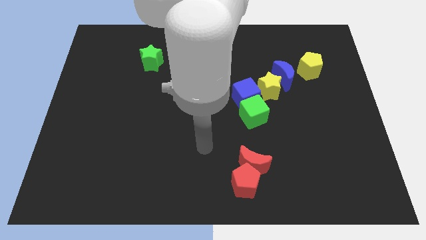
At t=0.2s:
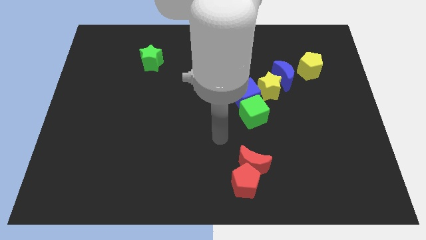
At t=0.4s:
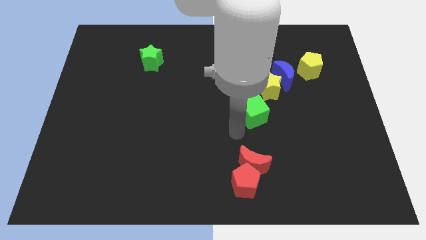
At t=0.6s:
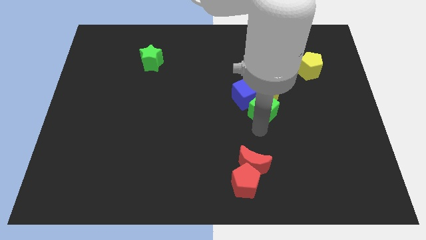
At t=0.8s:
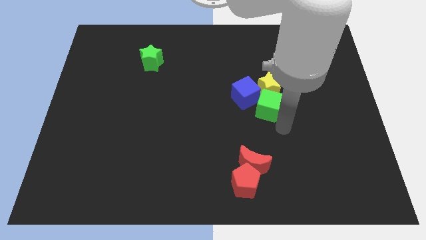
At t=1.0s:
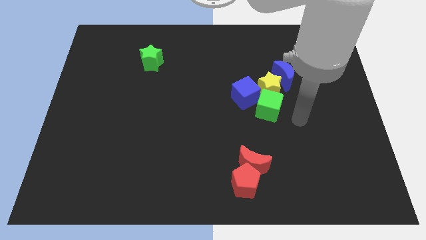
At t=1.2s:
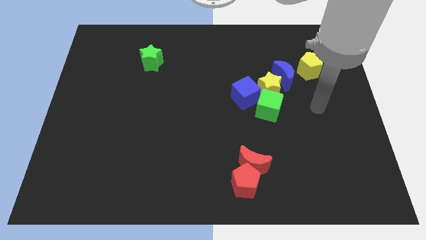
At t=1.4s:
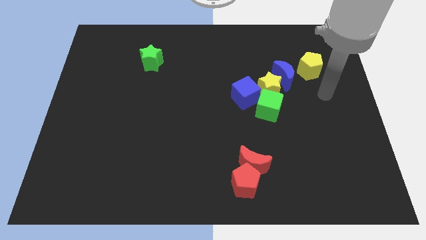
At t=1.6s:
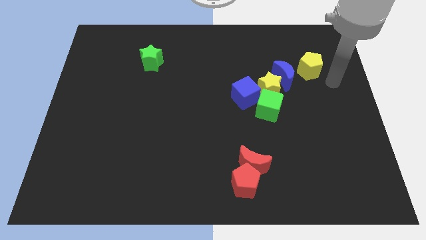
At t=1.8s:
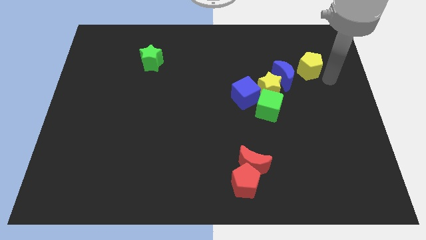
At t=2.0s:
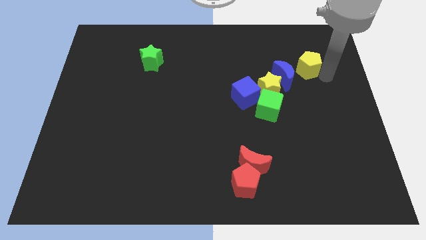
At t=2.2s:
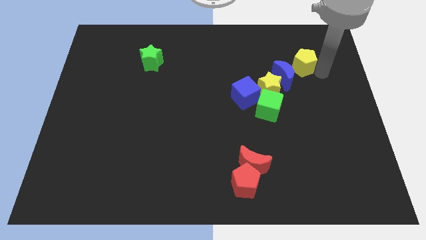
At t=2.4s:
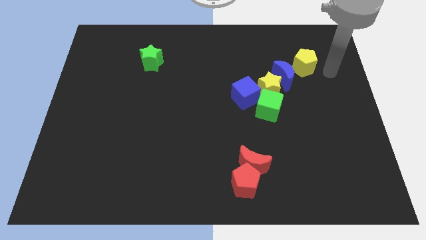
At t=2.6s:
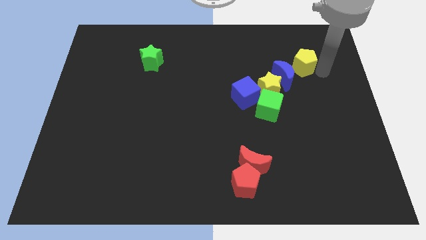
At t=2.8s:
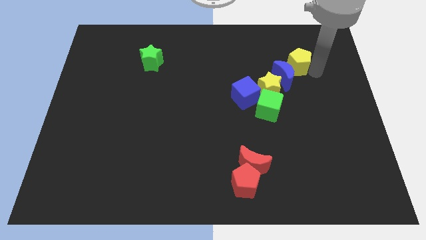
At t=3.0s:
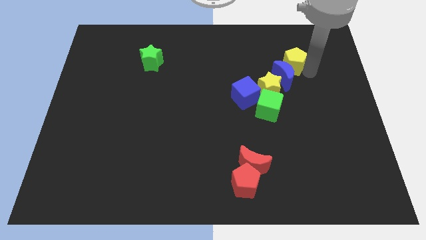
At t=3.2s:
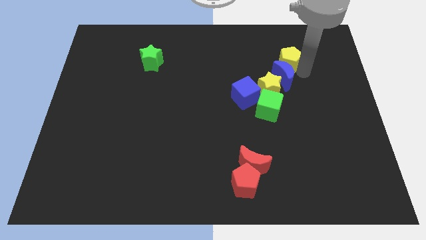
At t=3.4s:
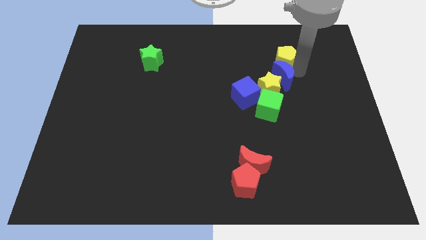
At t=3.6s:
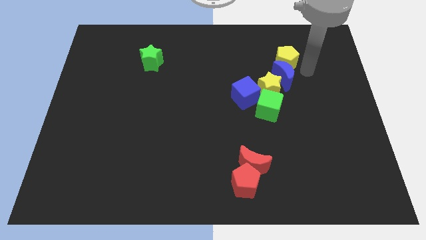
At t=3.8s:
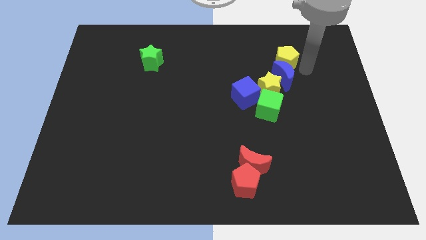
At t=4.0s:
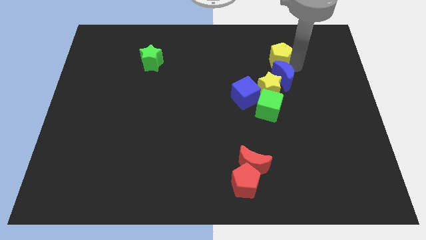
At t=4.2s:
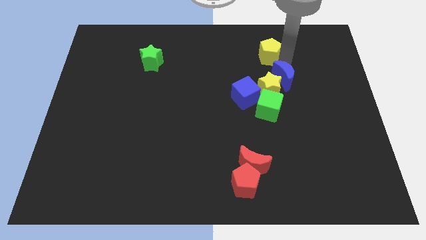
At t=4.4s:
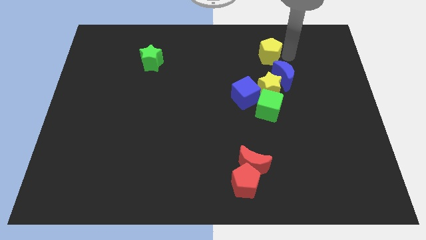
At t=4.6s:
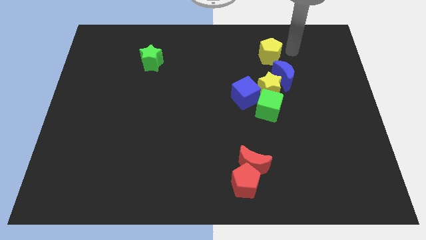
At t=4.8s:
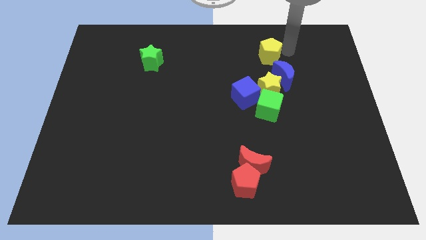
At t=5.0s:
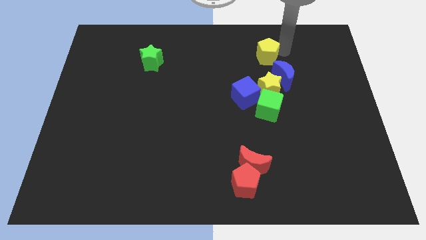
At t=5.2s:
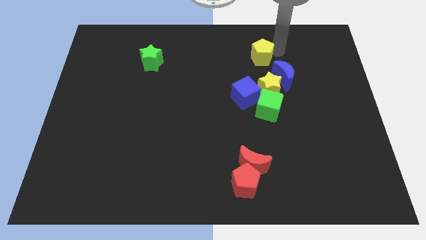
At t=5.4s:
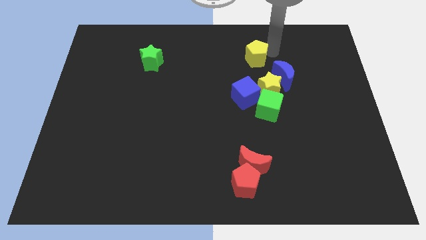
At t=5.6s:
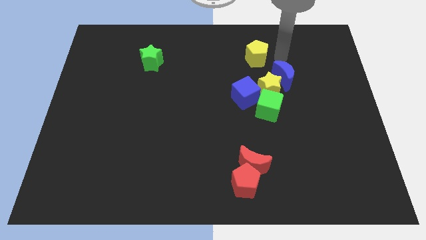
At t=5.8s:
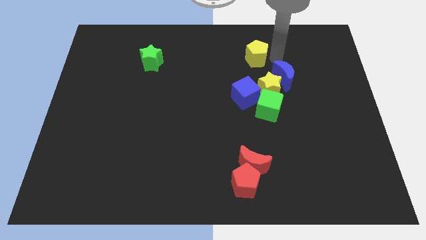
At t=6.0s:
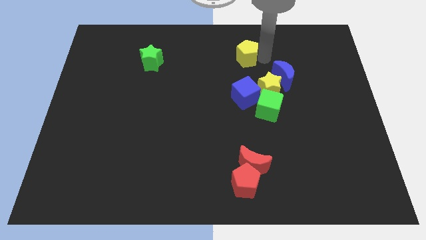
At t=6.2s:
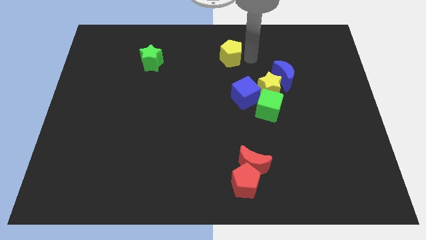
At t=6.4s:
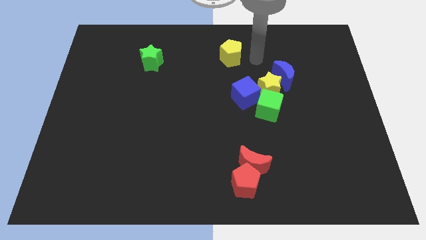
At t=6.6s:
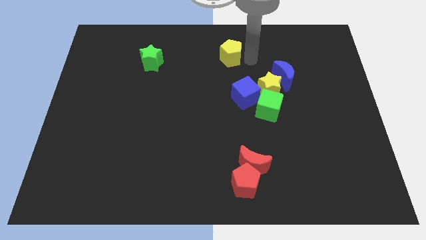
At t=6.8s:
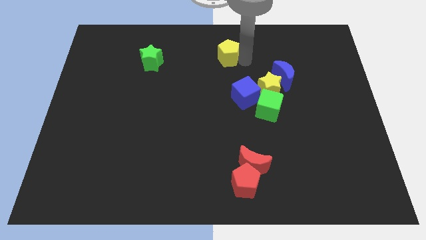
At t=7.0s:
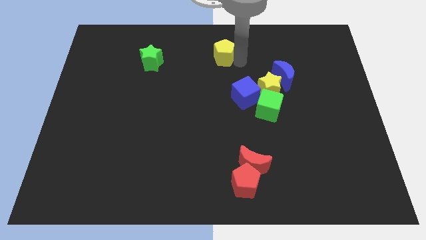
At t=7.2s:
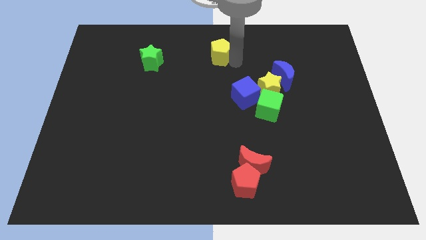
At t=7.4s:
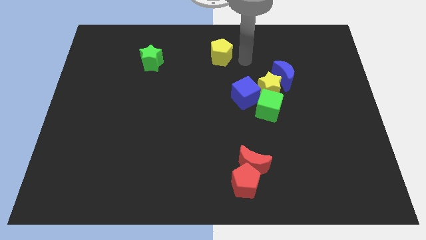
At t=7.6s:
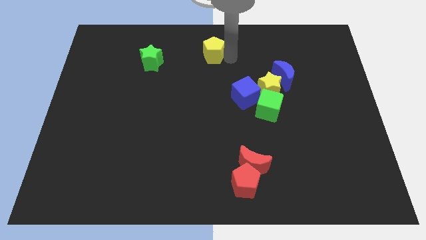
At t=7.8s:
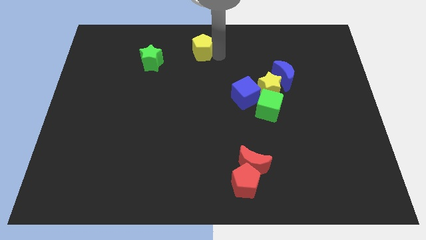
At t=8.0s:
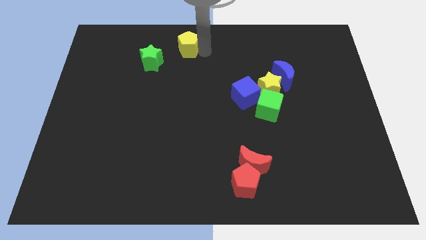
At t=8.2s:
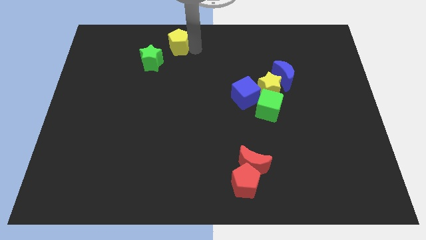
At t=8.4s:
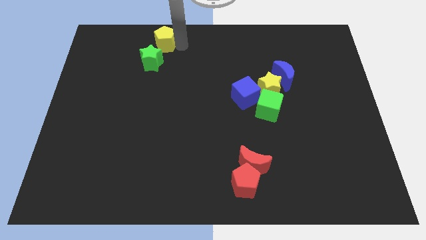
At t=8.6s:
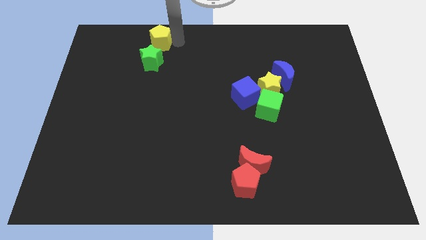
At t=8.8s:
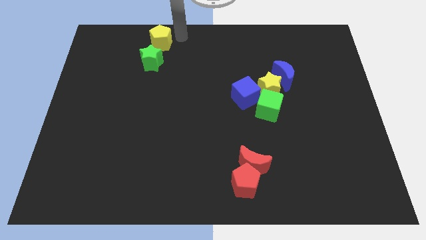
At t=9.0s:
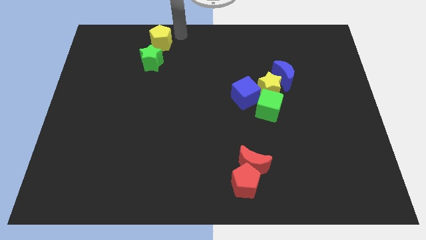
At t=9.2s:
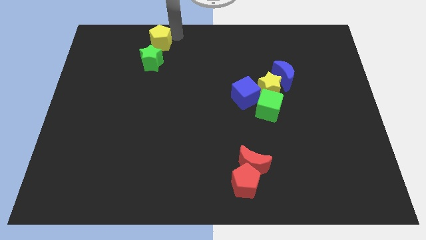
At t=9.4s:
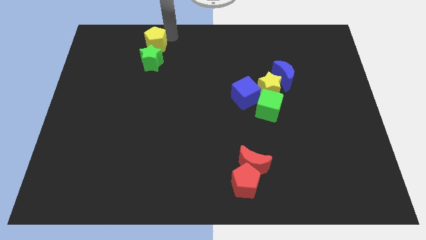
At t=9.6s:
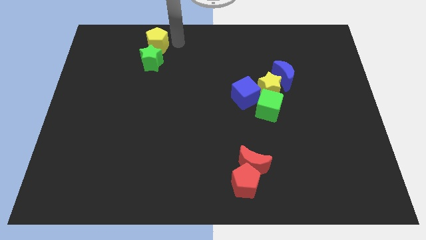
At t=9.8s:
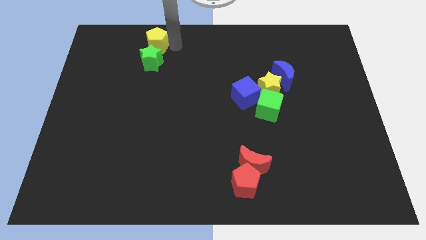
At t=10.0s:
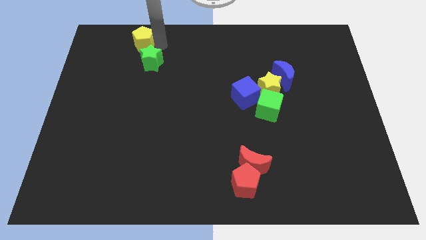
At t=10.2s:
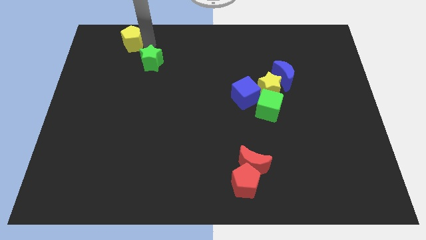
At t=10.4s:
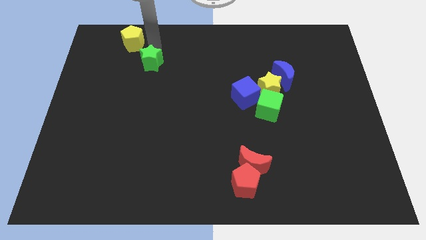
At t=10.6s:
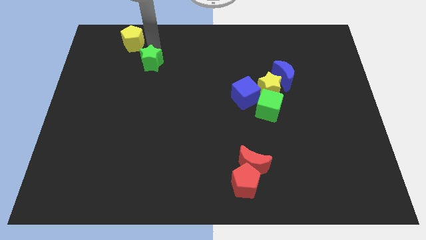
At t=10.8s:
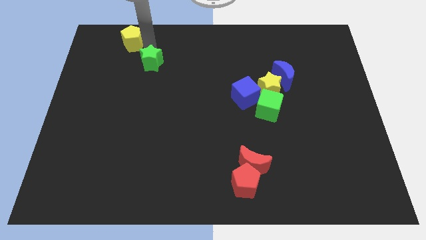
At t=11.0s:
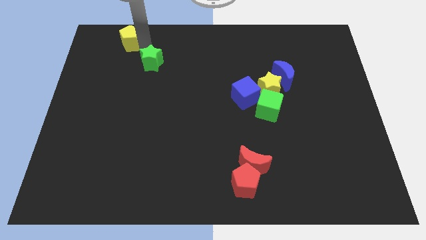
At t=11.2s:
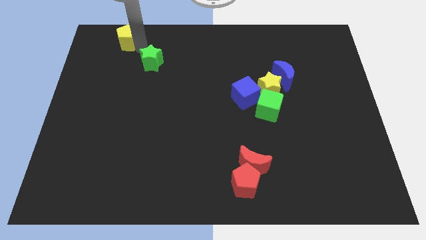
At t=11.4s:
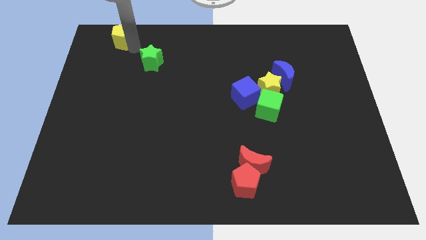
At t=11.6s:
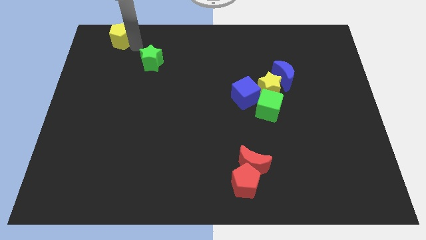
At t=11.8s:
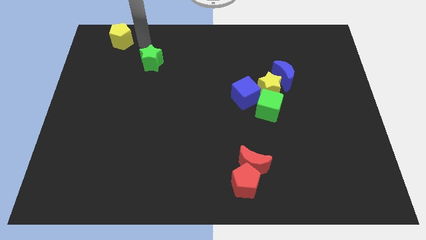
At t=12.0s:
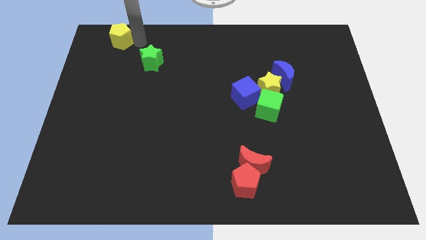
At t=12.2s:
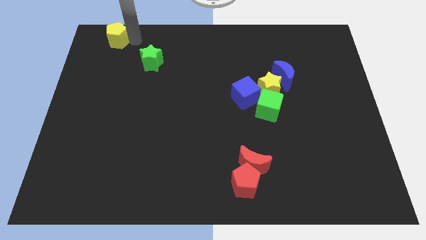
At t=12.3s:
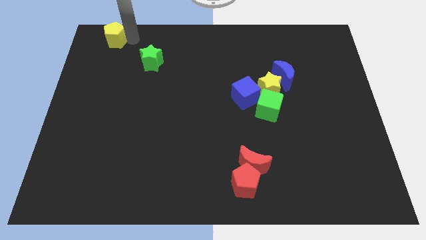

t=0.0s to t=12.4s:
push the yellow pentagon to the top left corner
